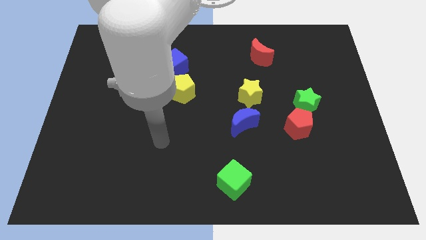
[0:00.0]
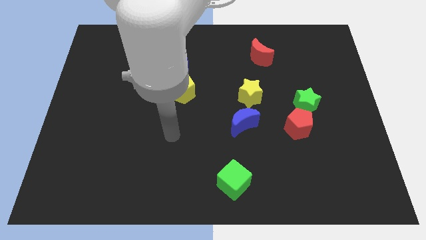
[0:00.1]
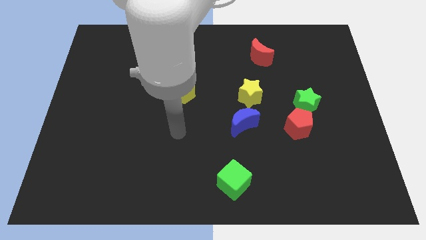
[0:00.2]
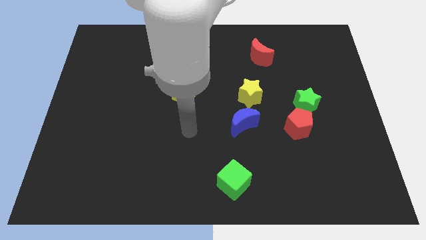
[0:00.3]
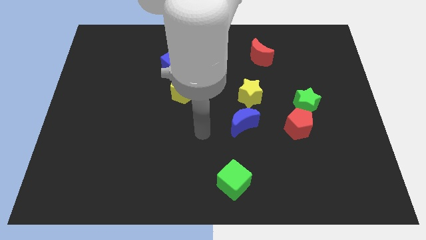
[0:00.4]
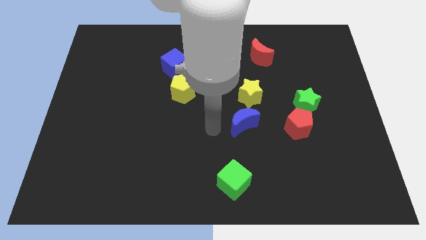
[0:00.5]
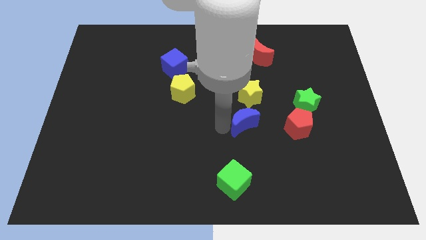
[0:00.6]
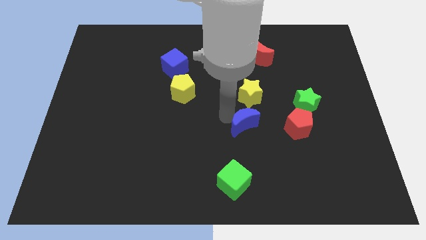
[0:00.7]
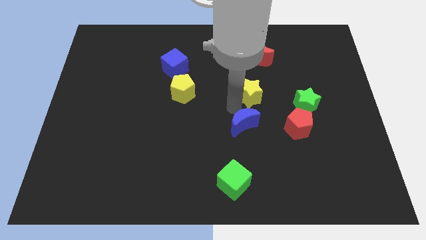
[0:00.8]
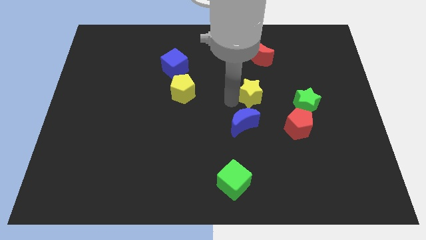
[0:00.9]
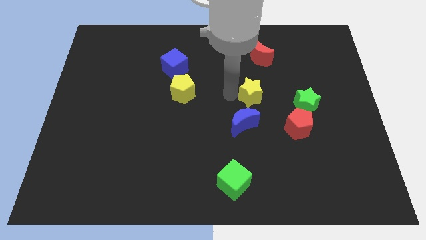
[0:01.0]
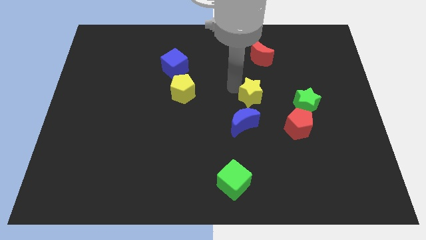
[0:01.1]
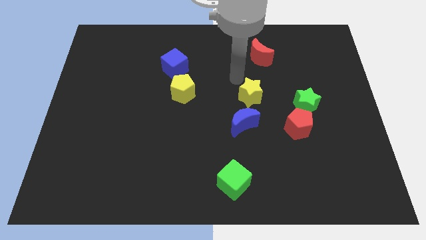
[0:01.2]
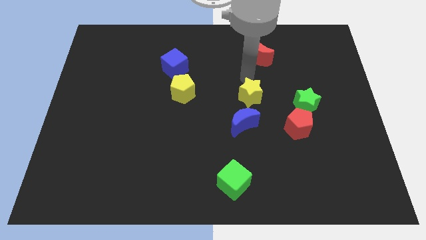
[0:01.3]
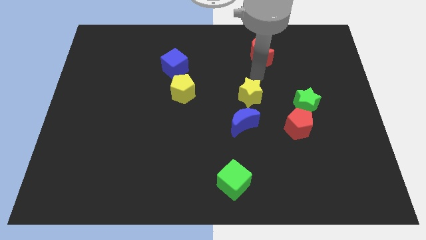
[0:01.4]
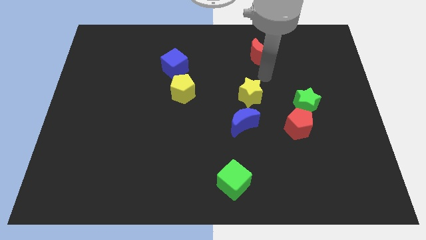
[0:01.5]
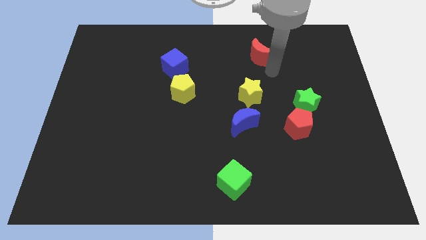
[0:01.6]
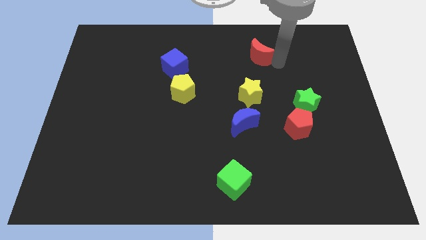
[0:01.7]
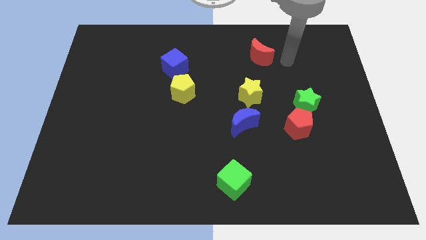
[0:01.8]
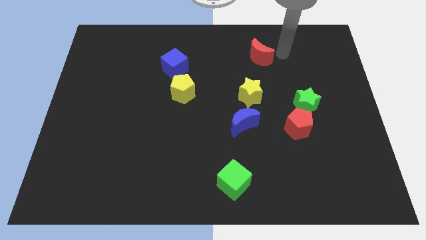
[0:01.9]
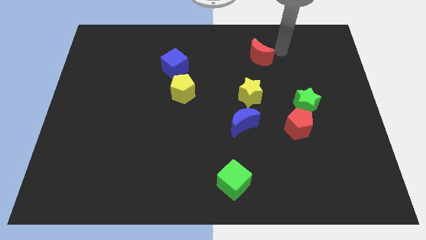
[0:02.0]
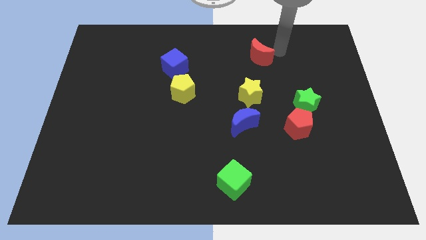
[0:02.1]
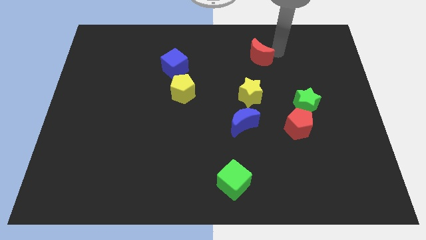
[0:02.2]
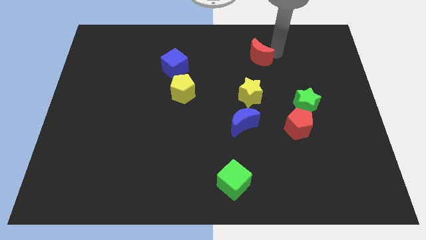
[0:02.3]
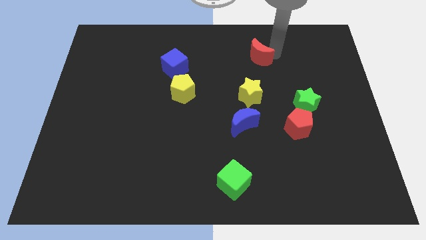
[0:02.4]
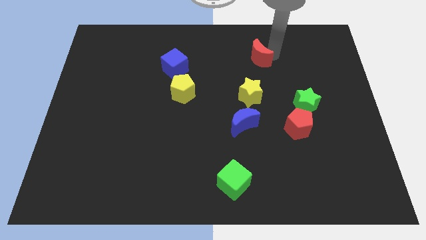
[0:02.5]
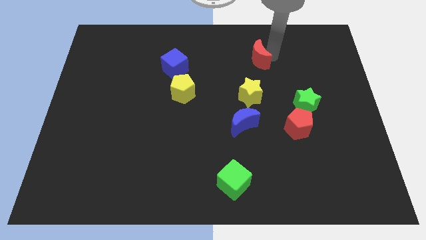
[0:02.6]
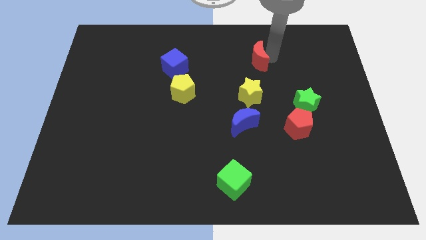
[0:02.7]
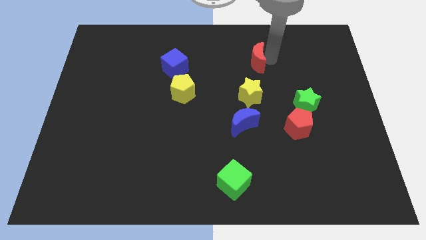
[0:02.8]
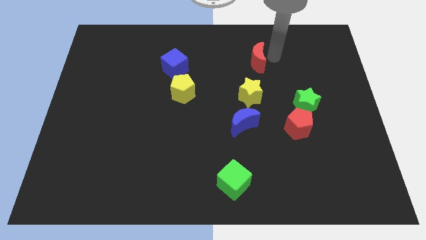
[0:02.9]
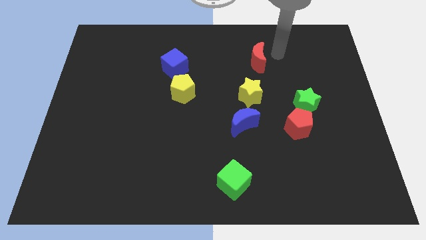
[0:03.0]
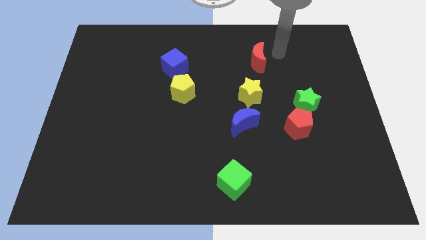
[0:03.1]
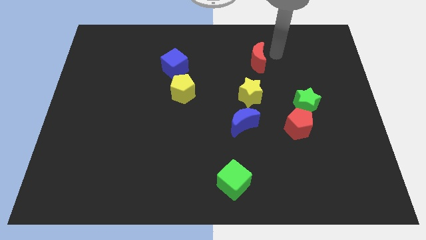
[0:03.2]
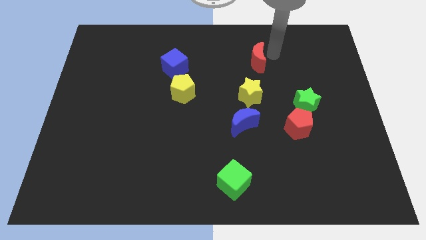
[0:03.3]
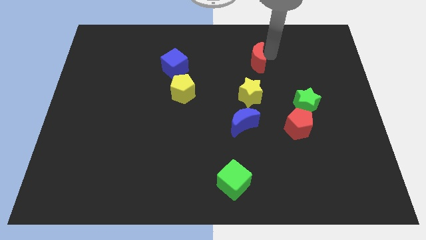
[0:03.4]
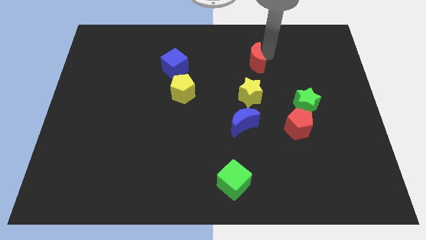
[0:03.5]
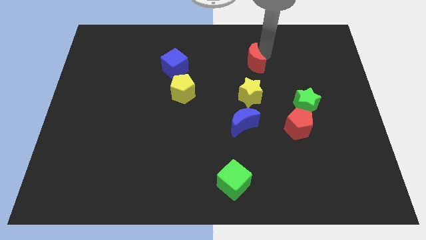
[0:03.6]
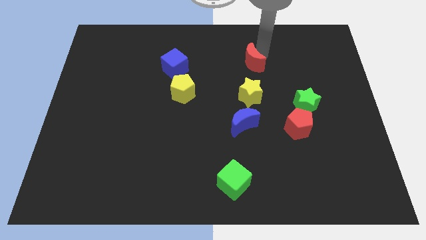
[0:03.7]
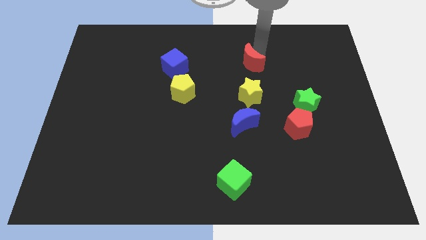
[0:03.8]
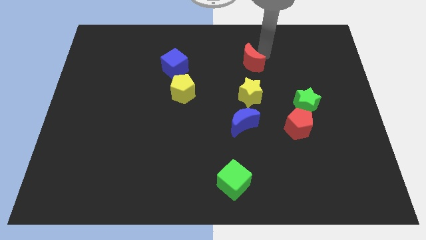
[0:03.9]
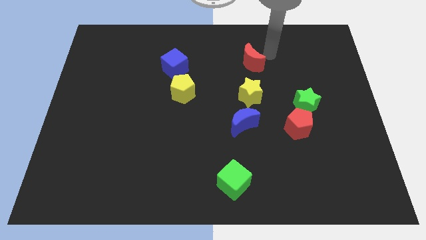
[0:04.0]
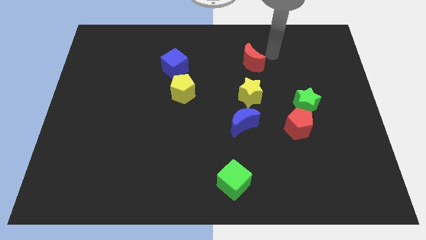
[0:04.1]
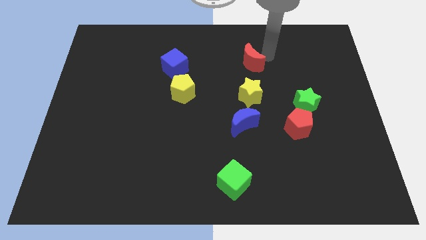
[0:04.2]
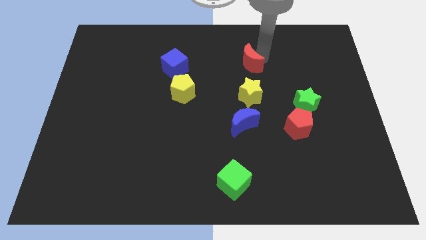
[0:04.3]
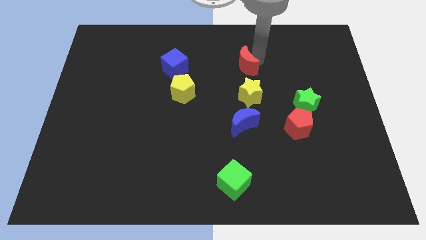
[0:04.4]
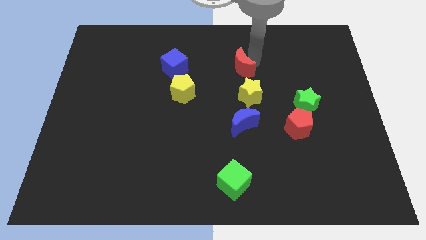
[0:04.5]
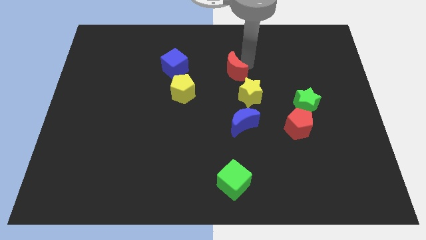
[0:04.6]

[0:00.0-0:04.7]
slide the red moon to the middle

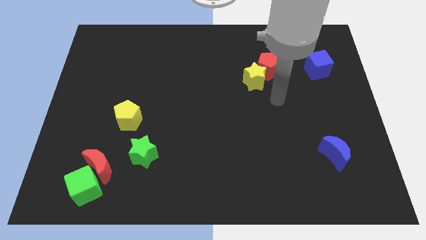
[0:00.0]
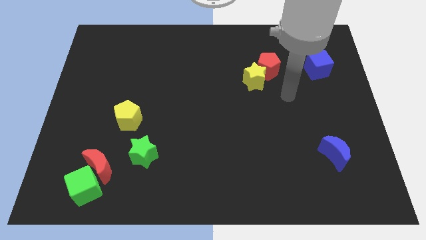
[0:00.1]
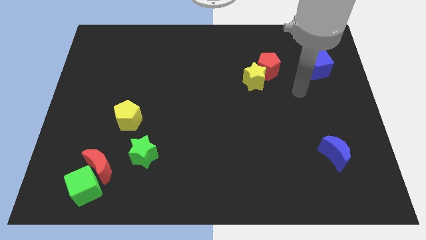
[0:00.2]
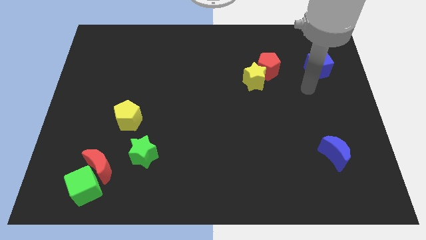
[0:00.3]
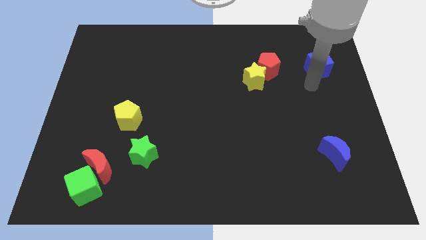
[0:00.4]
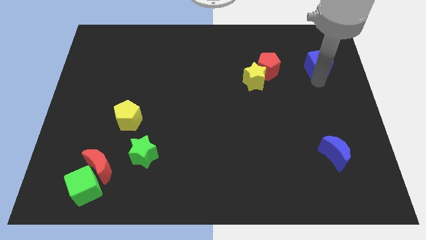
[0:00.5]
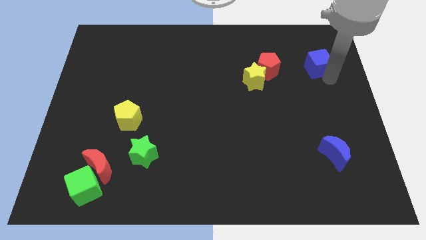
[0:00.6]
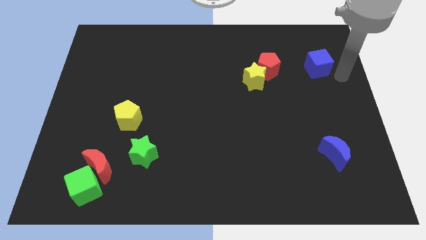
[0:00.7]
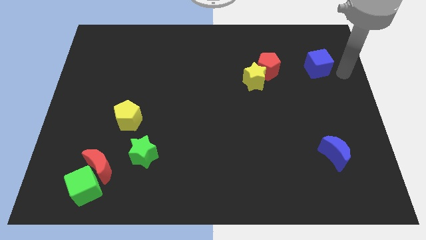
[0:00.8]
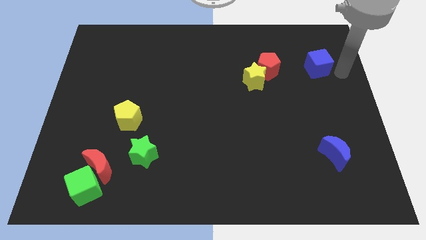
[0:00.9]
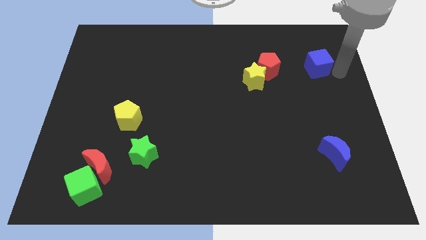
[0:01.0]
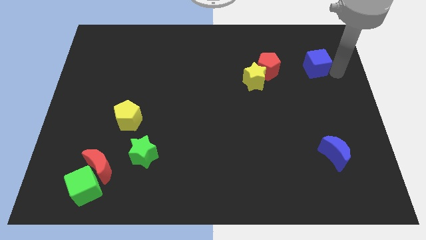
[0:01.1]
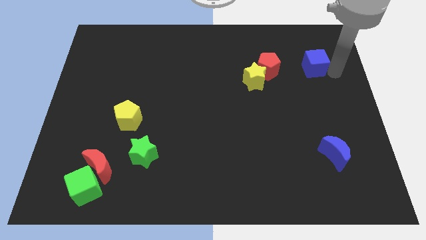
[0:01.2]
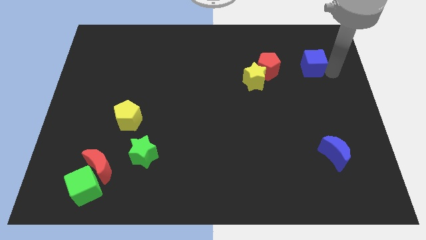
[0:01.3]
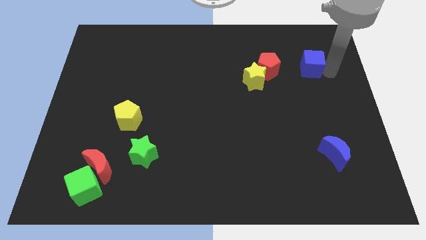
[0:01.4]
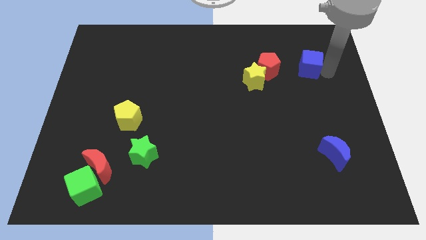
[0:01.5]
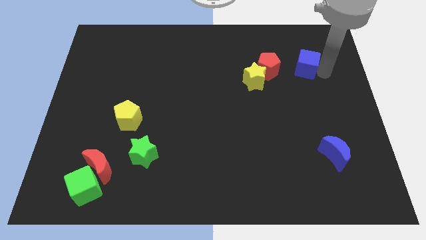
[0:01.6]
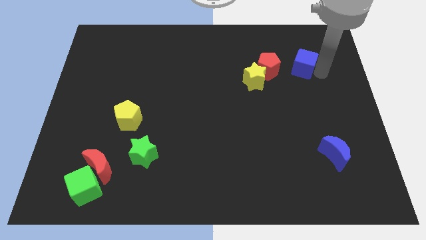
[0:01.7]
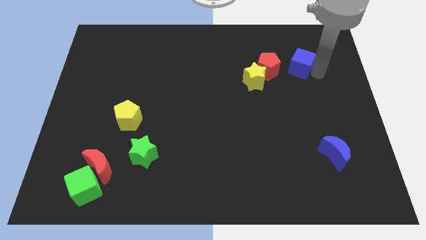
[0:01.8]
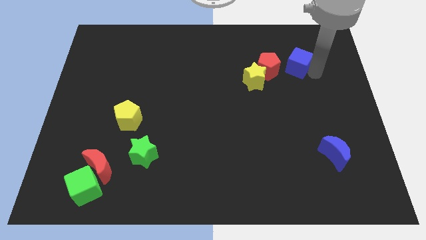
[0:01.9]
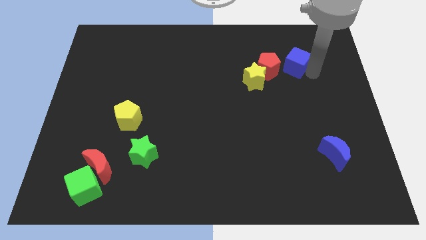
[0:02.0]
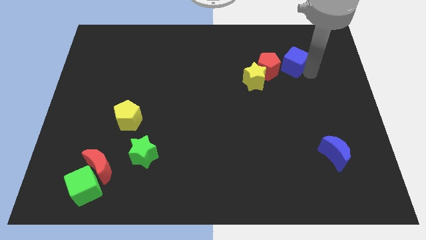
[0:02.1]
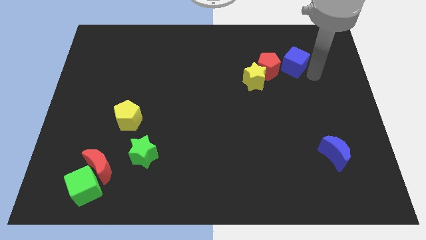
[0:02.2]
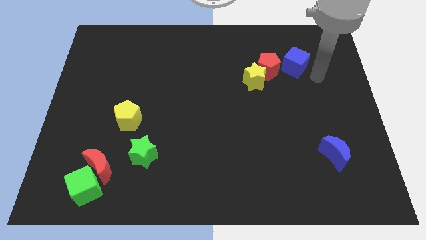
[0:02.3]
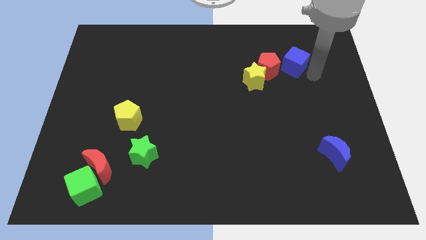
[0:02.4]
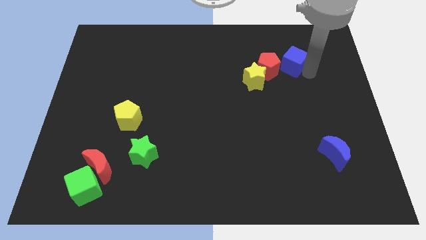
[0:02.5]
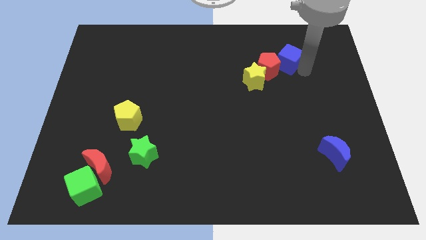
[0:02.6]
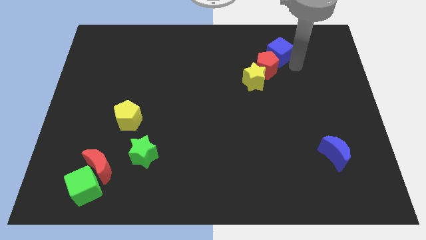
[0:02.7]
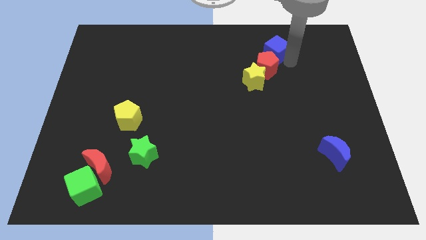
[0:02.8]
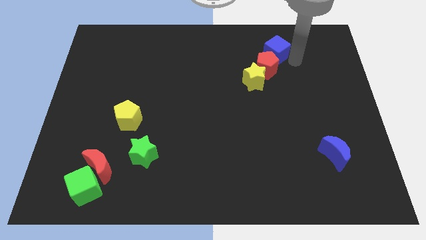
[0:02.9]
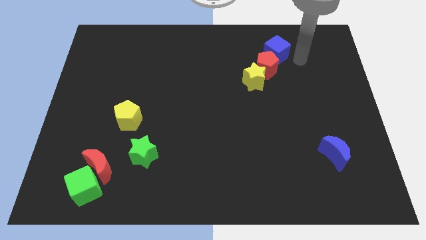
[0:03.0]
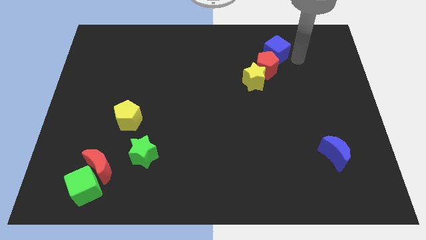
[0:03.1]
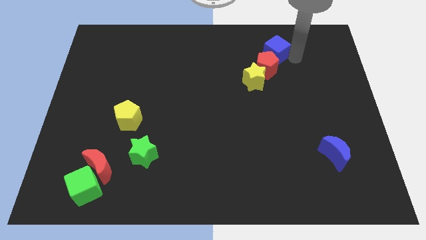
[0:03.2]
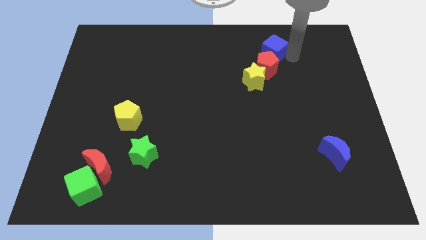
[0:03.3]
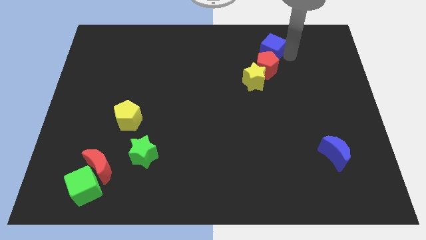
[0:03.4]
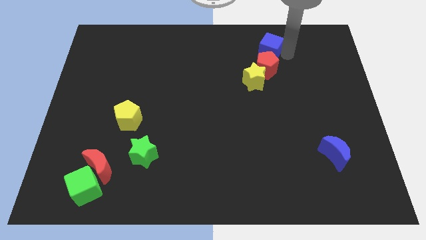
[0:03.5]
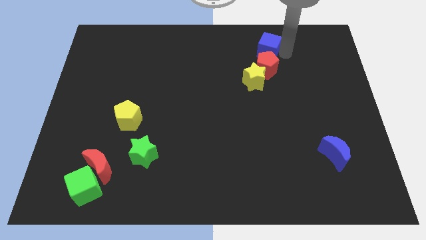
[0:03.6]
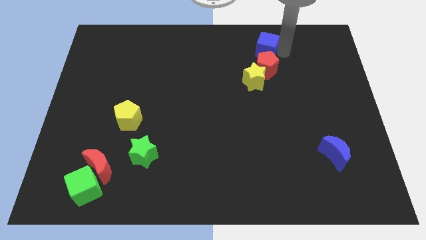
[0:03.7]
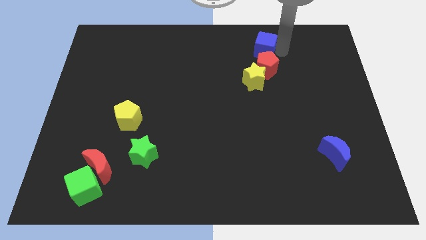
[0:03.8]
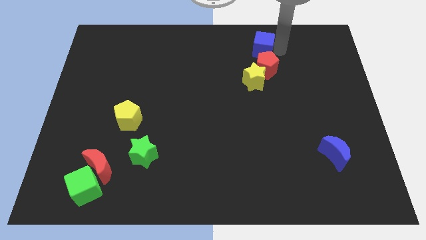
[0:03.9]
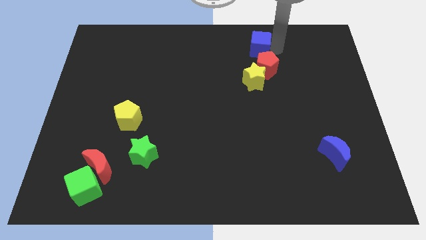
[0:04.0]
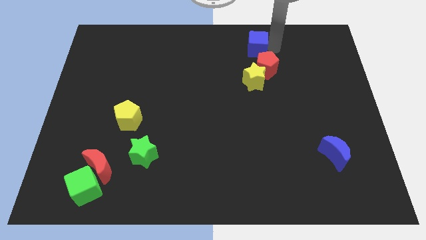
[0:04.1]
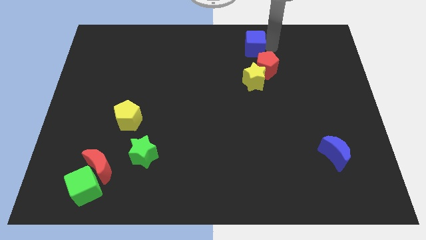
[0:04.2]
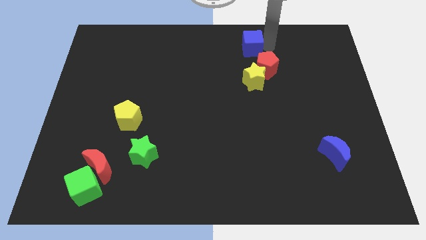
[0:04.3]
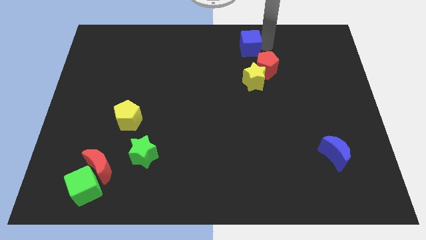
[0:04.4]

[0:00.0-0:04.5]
put the blue cube to the towards your base
